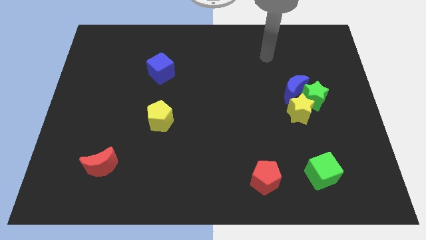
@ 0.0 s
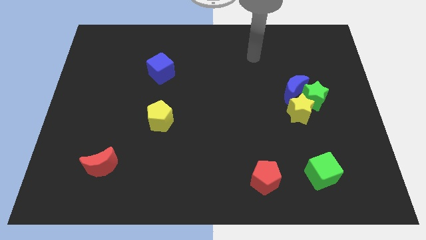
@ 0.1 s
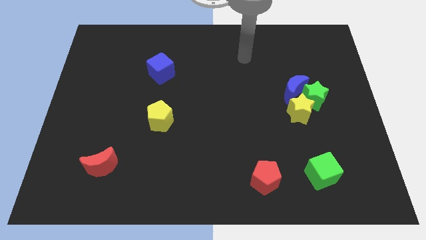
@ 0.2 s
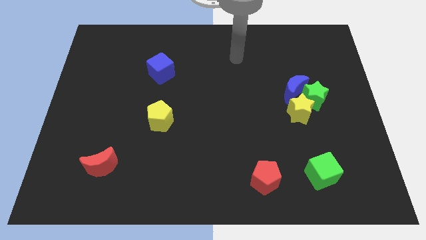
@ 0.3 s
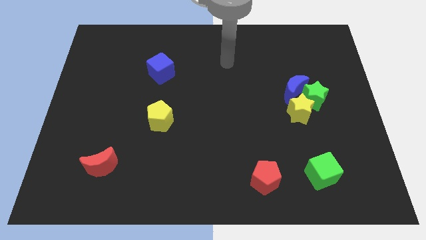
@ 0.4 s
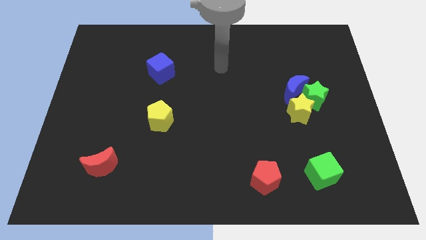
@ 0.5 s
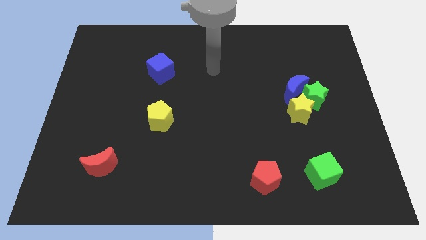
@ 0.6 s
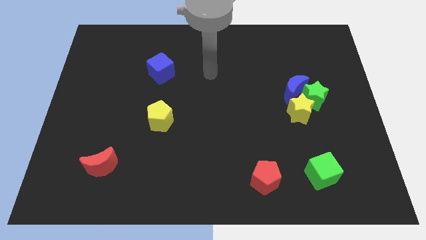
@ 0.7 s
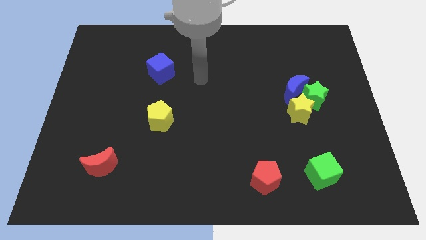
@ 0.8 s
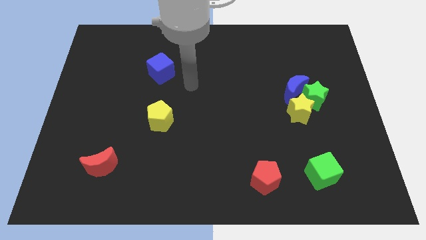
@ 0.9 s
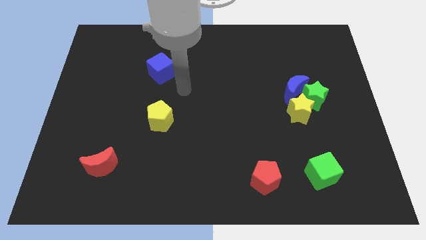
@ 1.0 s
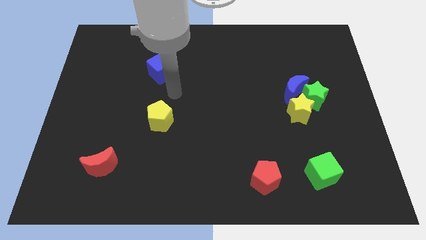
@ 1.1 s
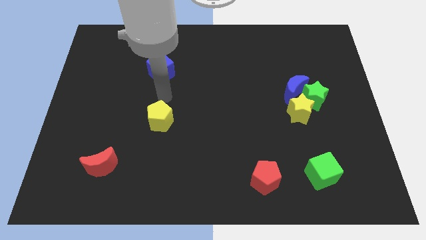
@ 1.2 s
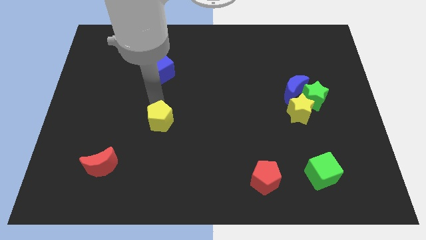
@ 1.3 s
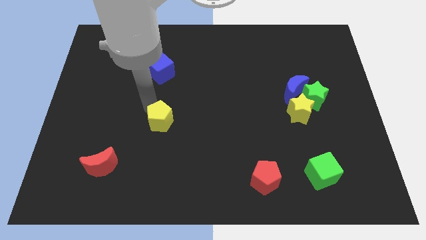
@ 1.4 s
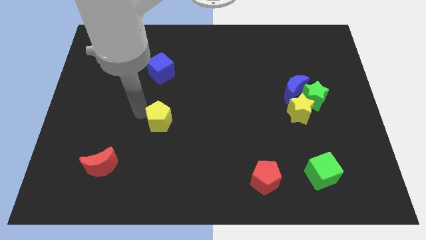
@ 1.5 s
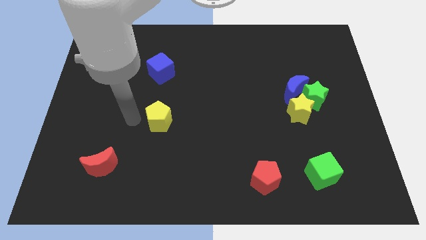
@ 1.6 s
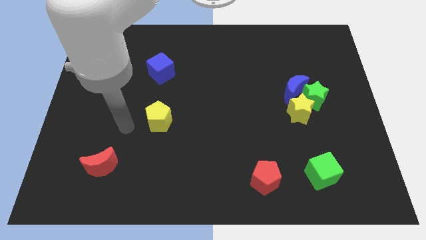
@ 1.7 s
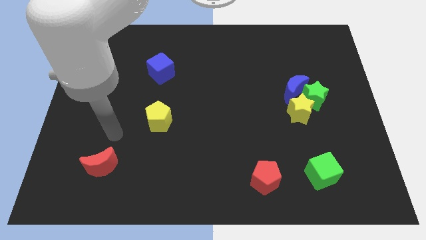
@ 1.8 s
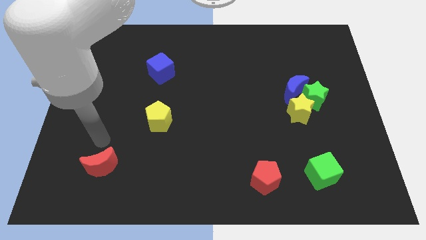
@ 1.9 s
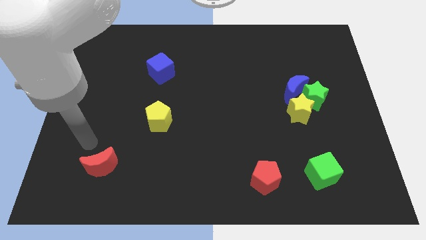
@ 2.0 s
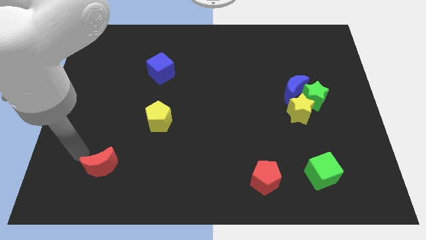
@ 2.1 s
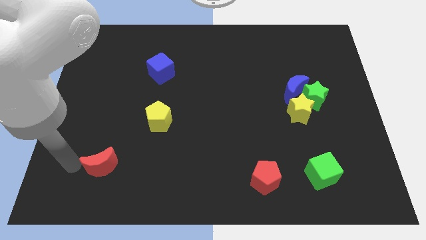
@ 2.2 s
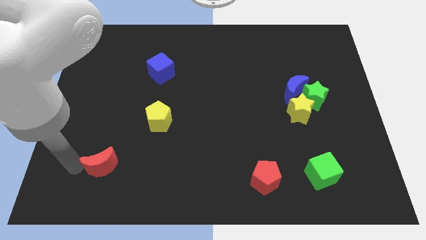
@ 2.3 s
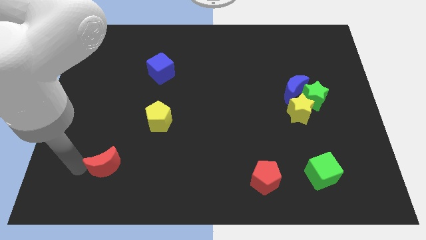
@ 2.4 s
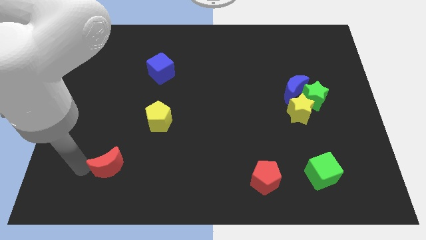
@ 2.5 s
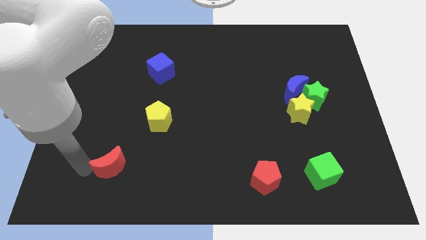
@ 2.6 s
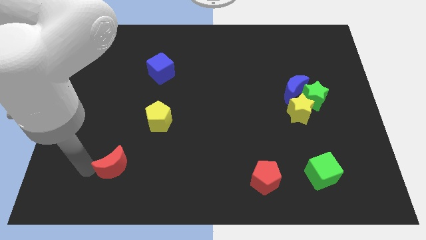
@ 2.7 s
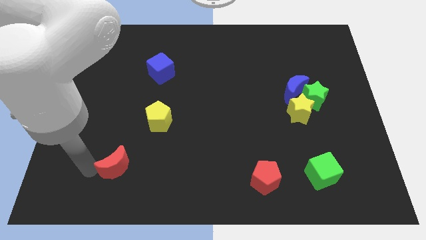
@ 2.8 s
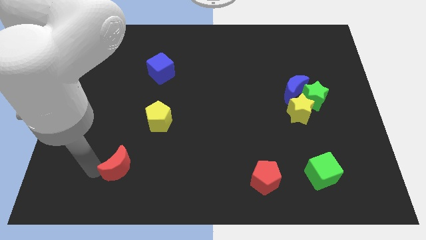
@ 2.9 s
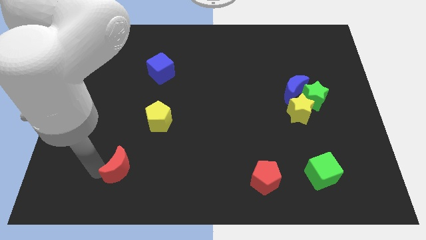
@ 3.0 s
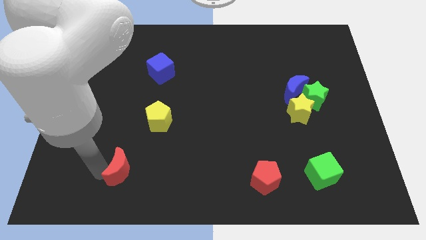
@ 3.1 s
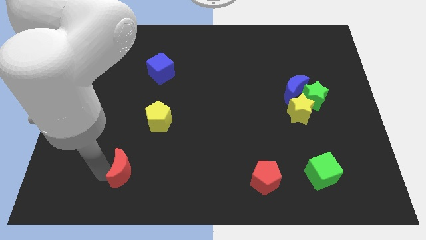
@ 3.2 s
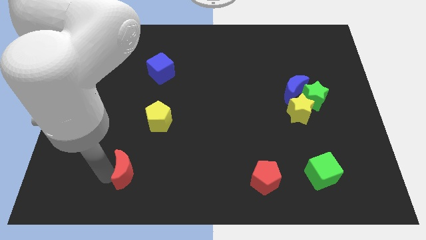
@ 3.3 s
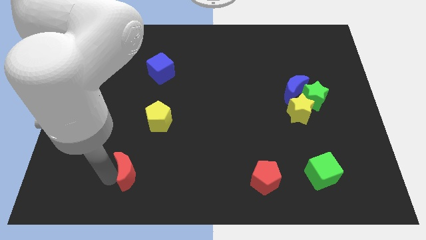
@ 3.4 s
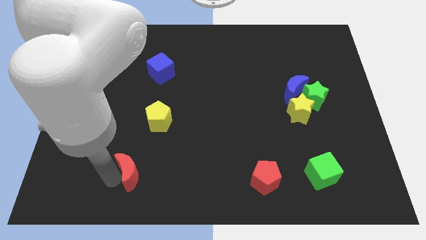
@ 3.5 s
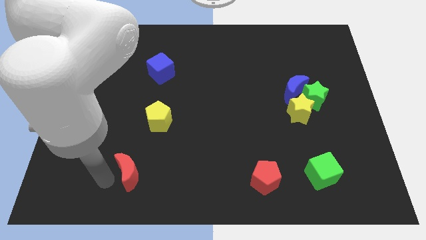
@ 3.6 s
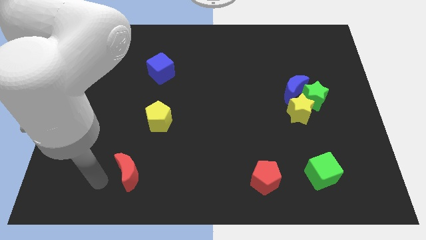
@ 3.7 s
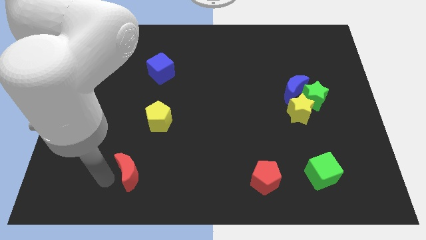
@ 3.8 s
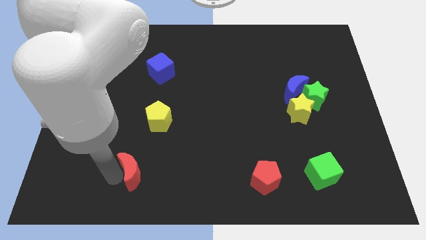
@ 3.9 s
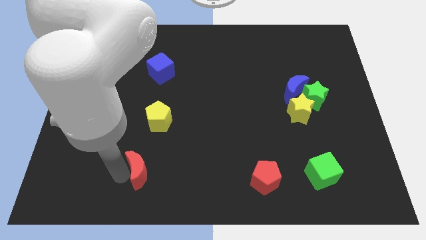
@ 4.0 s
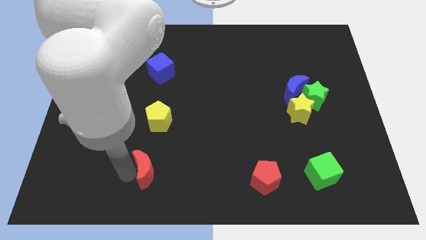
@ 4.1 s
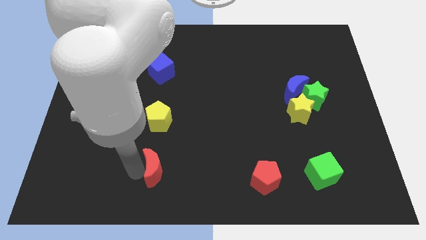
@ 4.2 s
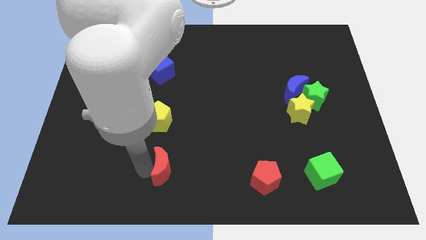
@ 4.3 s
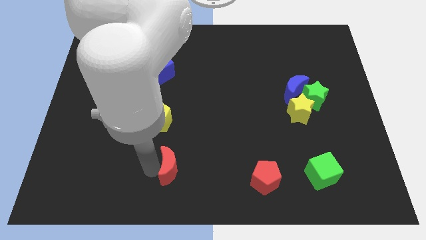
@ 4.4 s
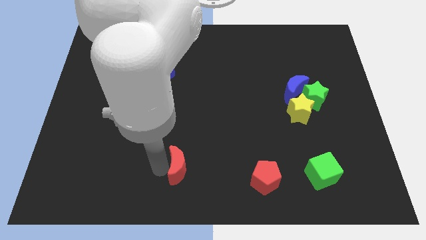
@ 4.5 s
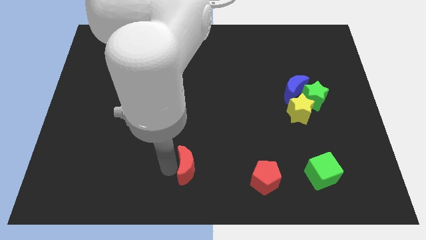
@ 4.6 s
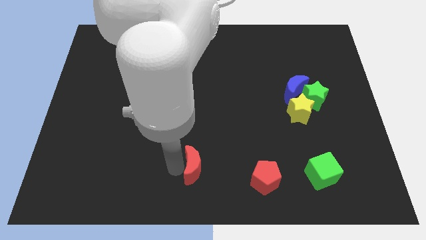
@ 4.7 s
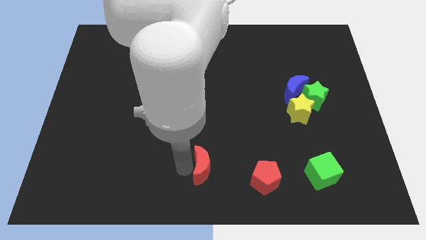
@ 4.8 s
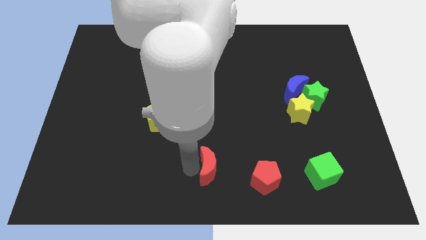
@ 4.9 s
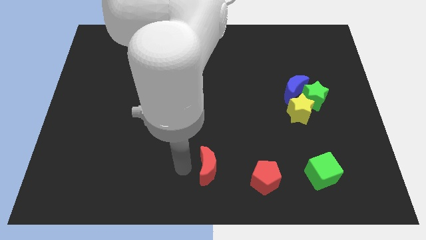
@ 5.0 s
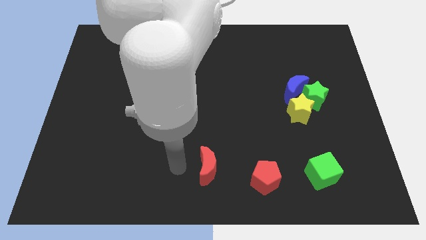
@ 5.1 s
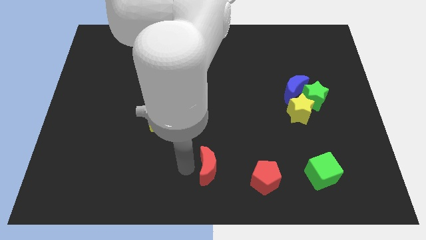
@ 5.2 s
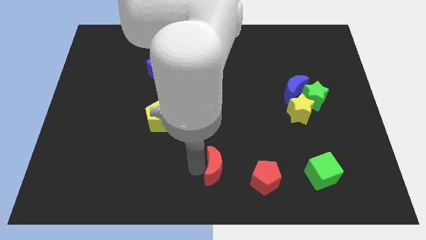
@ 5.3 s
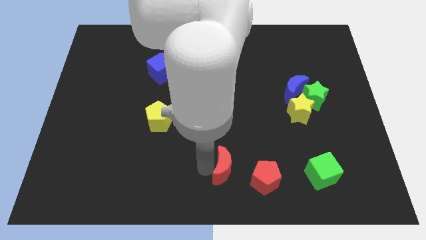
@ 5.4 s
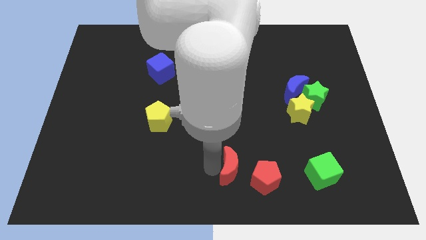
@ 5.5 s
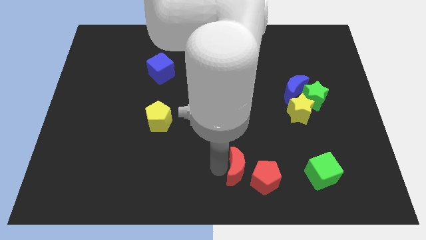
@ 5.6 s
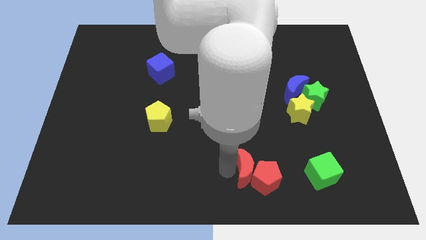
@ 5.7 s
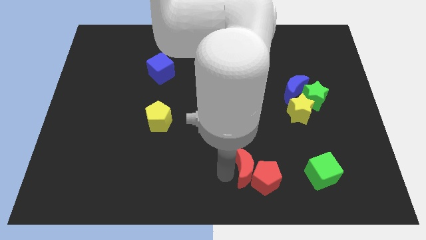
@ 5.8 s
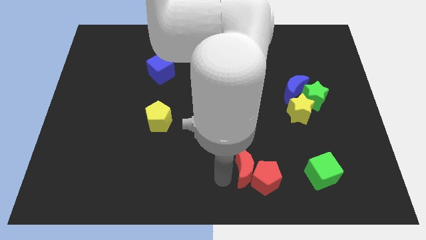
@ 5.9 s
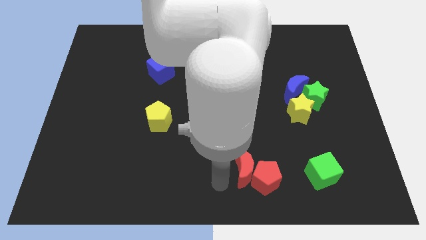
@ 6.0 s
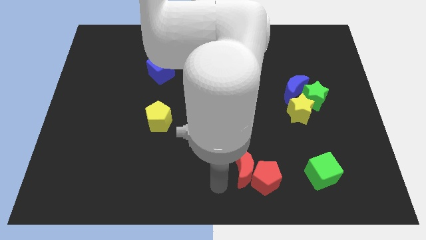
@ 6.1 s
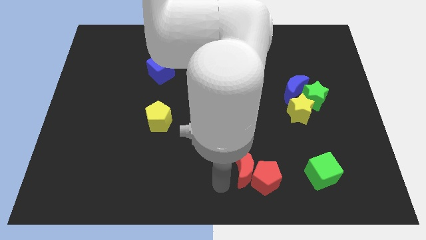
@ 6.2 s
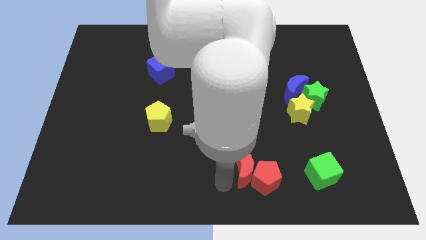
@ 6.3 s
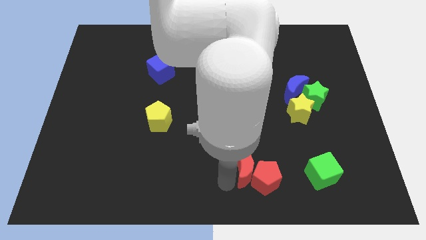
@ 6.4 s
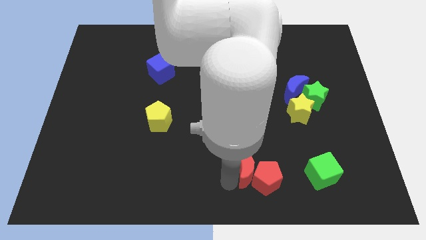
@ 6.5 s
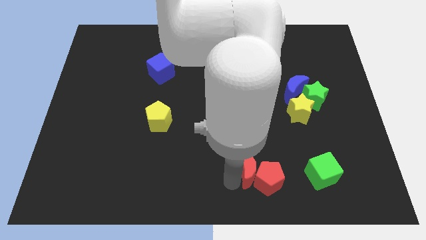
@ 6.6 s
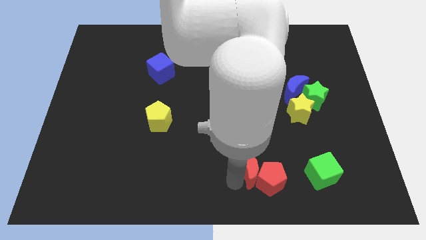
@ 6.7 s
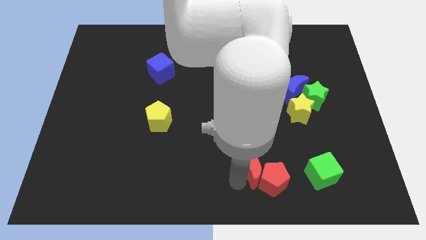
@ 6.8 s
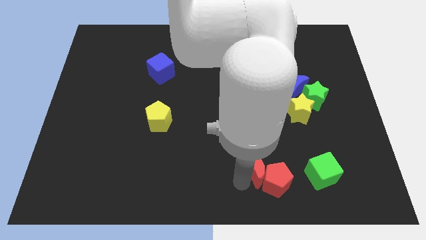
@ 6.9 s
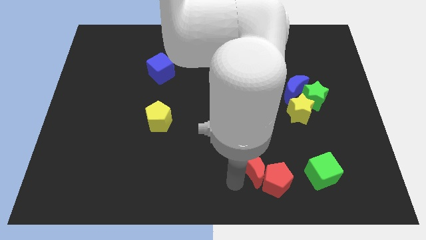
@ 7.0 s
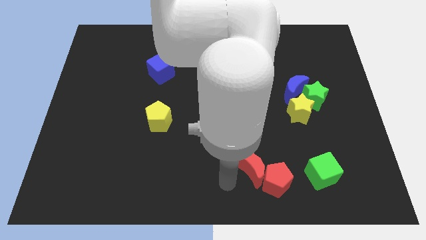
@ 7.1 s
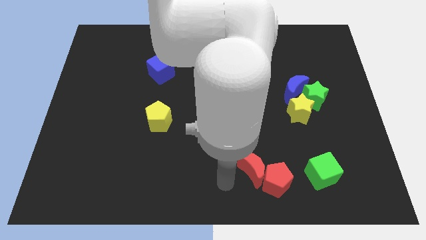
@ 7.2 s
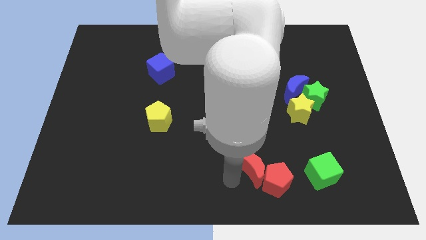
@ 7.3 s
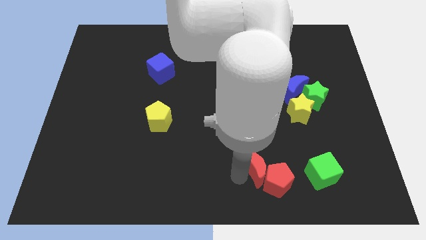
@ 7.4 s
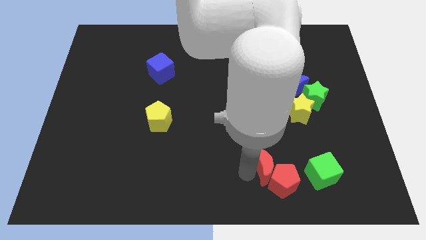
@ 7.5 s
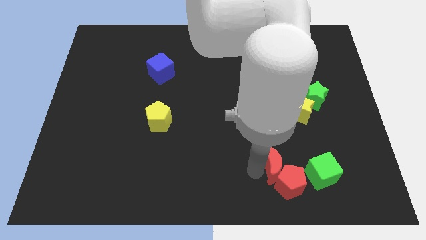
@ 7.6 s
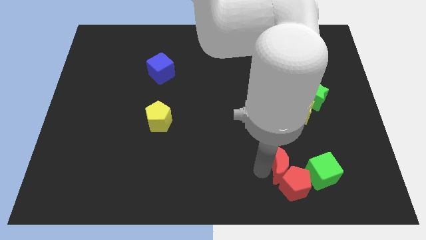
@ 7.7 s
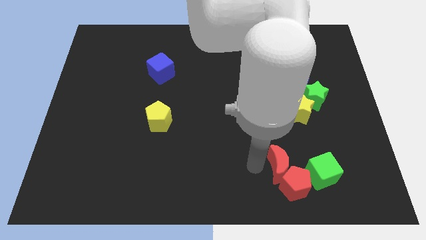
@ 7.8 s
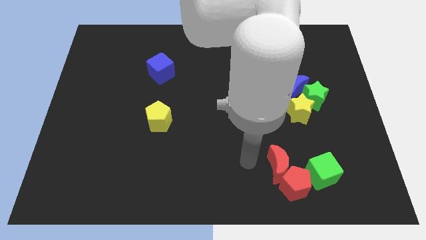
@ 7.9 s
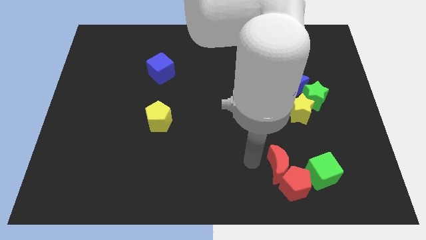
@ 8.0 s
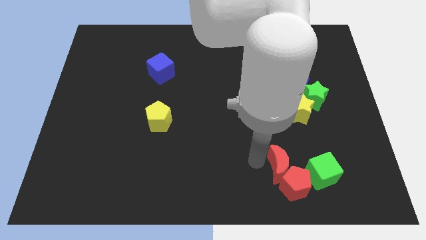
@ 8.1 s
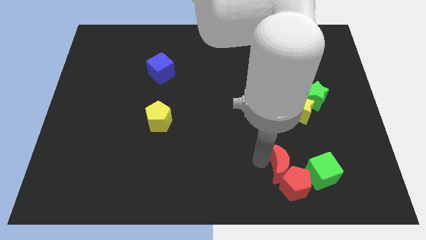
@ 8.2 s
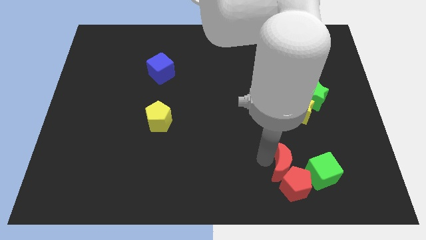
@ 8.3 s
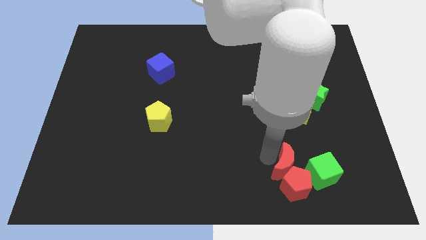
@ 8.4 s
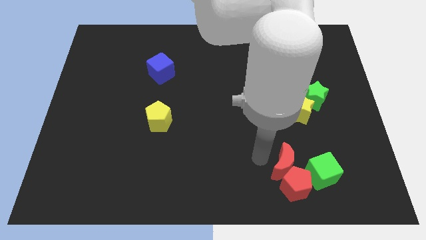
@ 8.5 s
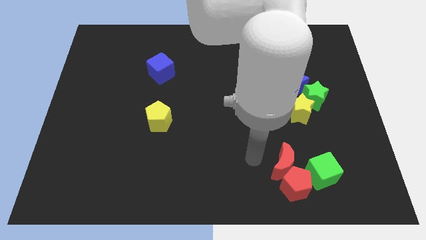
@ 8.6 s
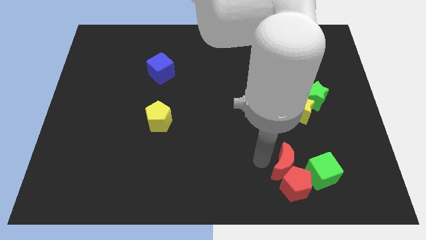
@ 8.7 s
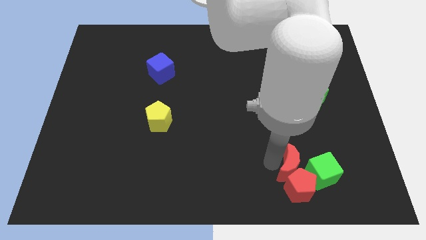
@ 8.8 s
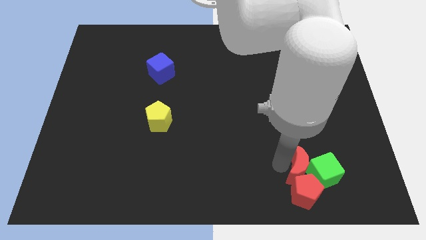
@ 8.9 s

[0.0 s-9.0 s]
put the red moon next to the green cube
